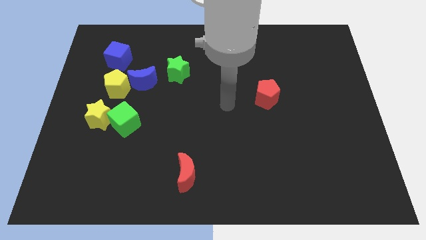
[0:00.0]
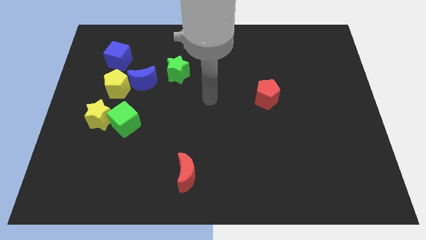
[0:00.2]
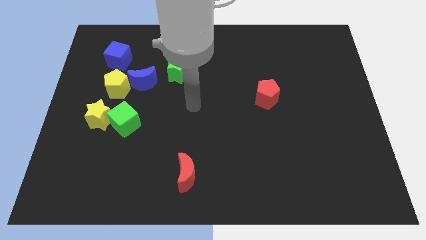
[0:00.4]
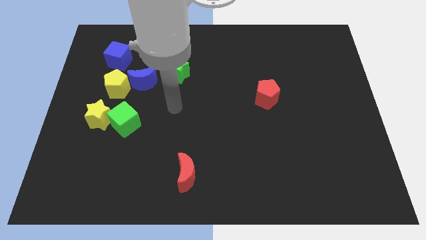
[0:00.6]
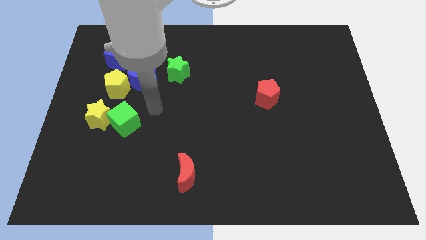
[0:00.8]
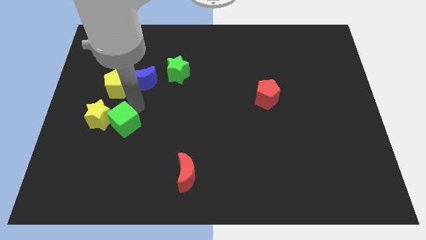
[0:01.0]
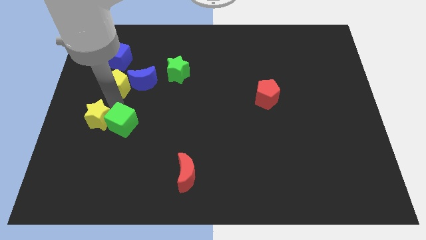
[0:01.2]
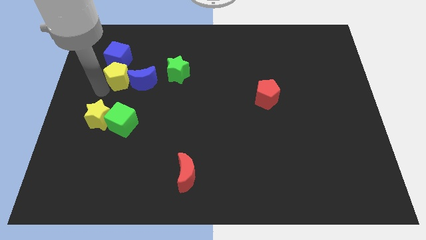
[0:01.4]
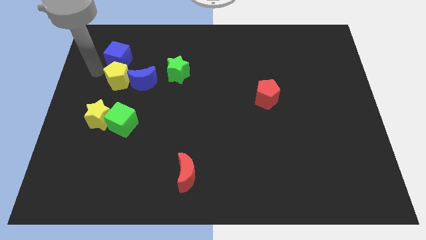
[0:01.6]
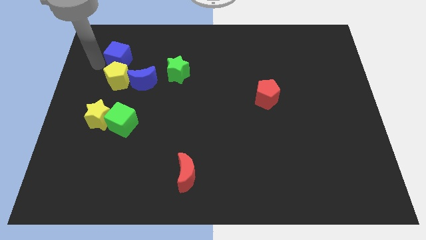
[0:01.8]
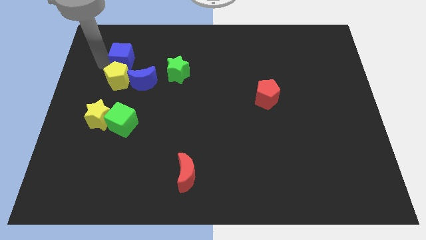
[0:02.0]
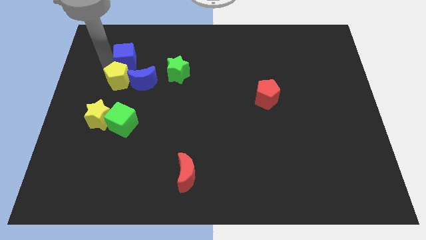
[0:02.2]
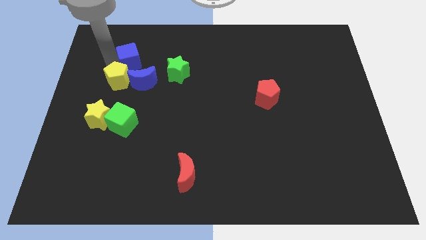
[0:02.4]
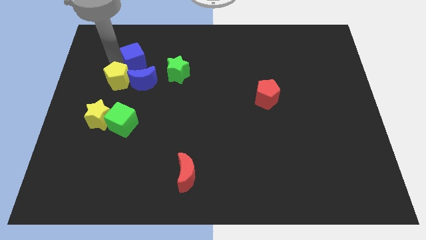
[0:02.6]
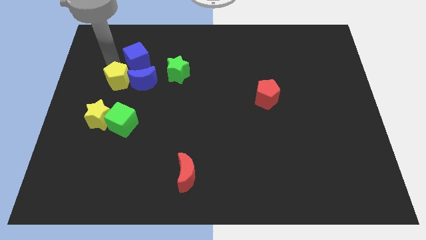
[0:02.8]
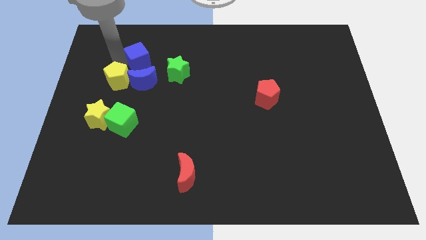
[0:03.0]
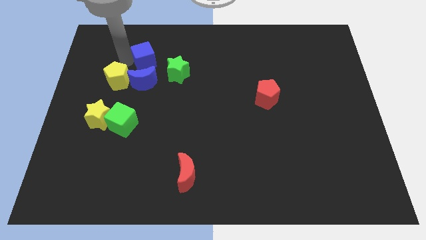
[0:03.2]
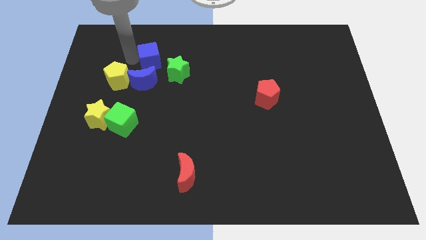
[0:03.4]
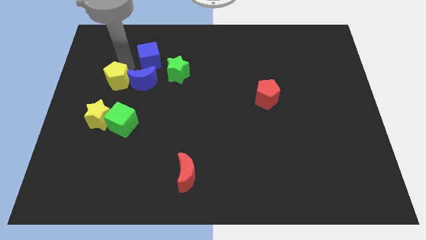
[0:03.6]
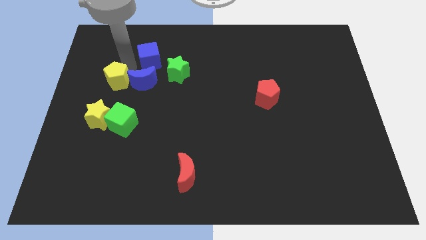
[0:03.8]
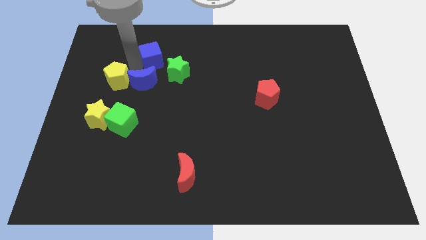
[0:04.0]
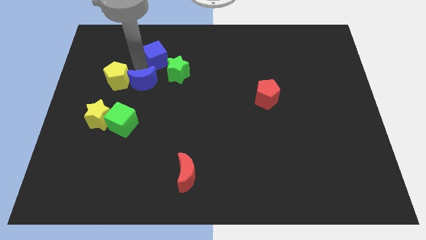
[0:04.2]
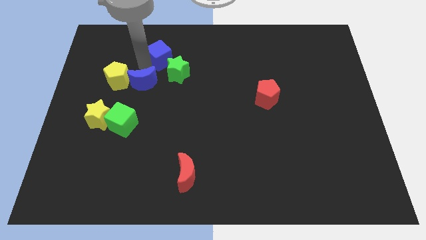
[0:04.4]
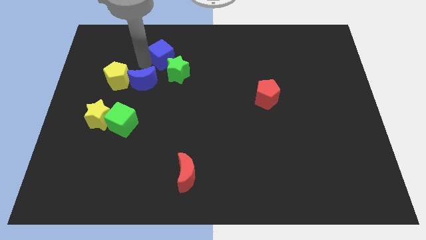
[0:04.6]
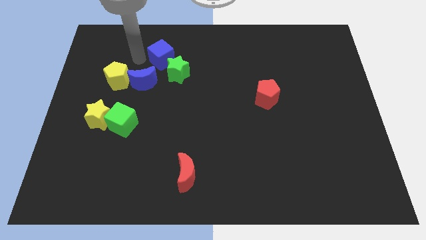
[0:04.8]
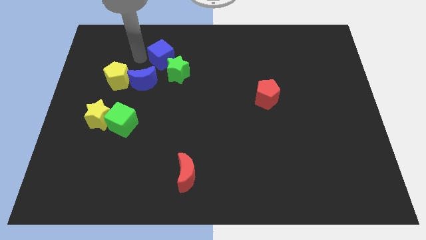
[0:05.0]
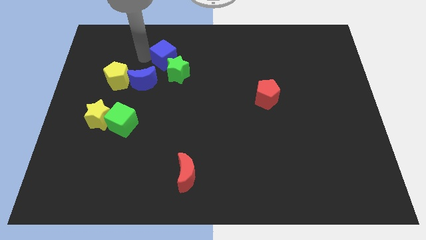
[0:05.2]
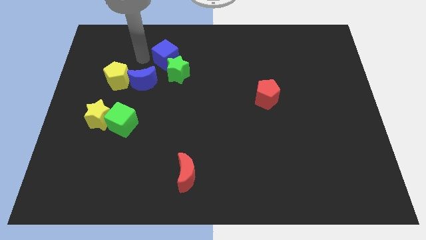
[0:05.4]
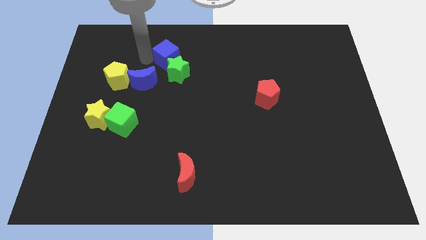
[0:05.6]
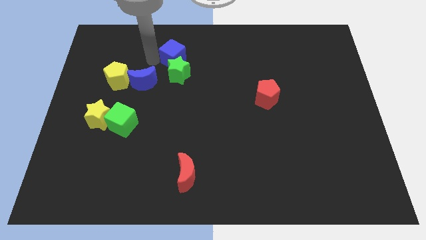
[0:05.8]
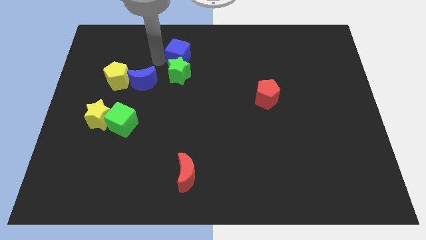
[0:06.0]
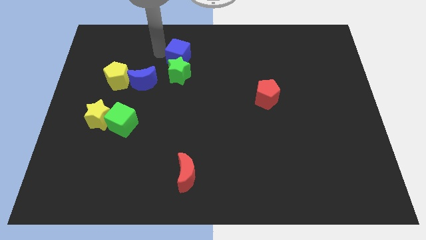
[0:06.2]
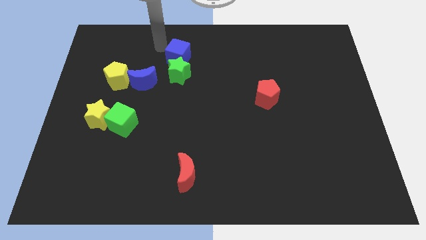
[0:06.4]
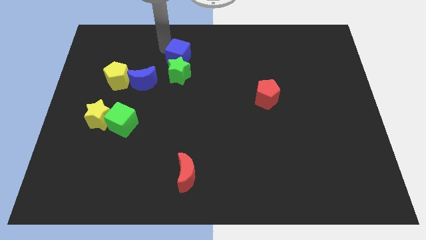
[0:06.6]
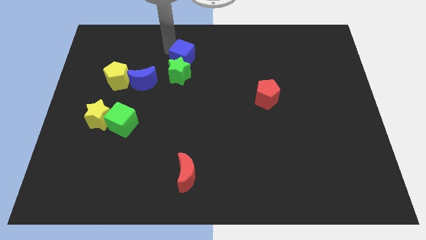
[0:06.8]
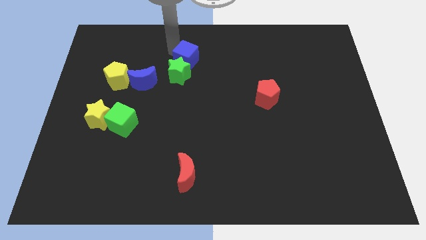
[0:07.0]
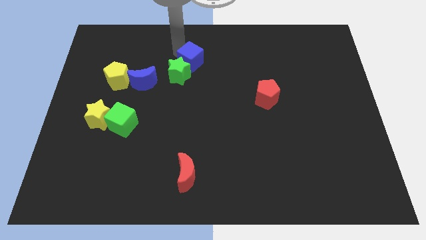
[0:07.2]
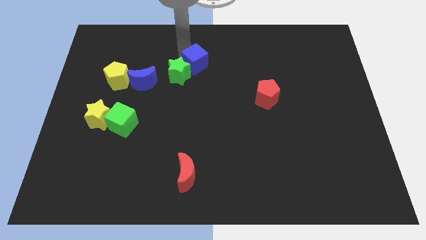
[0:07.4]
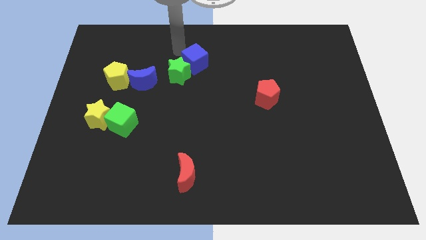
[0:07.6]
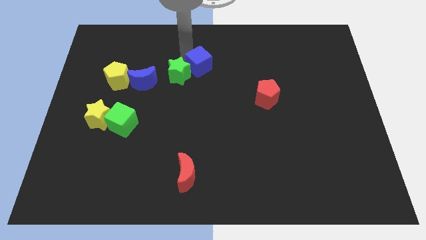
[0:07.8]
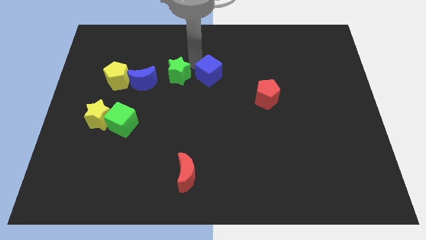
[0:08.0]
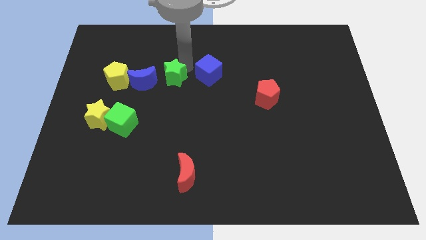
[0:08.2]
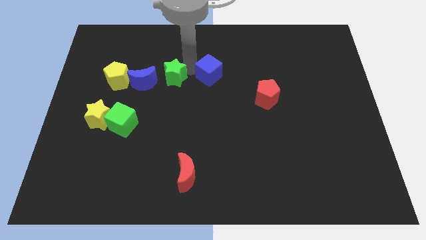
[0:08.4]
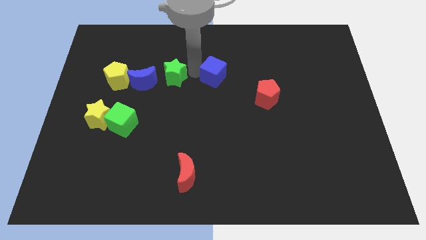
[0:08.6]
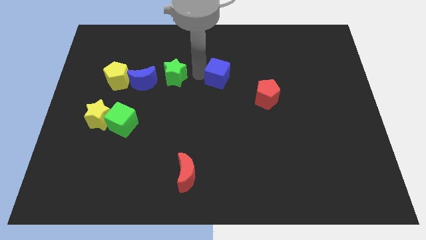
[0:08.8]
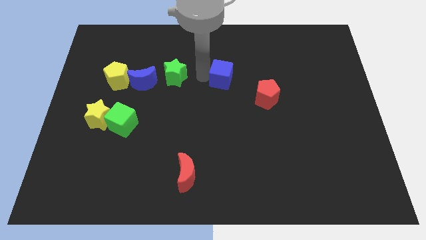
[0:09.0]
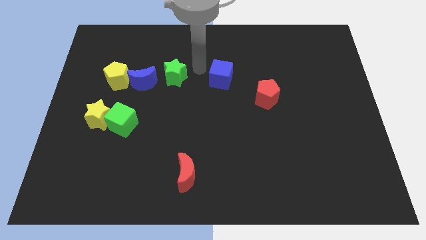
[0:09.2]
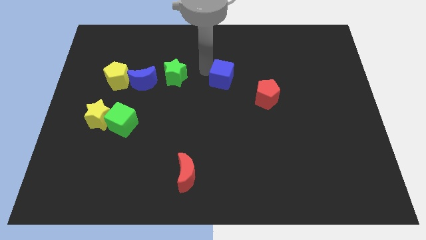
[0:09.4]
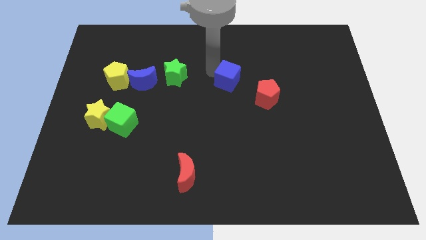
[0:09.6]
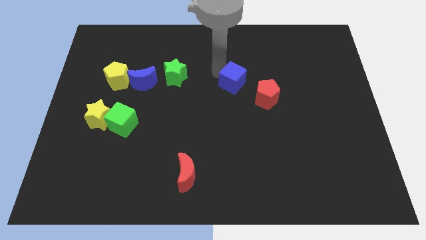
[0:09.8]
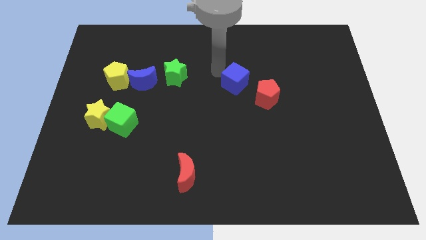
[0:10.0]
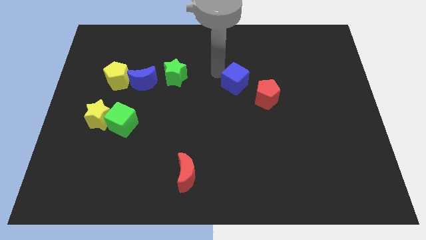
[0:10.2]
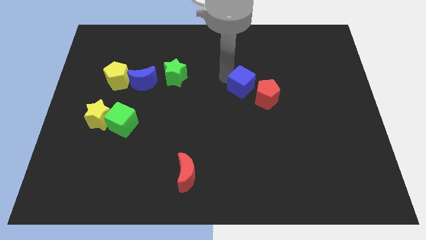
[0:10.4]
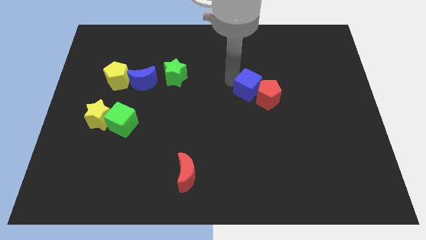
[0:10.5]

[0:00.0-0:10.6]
move the blue cube close to the red pentagon

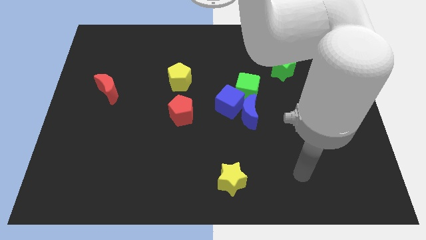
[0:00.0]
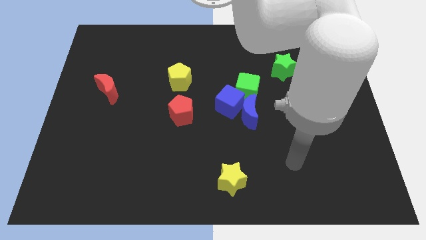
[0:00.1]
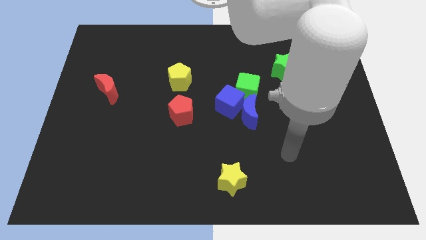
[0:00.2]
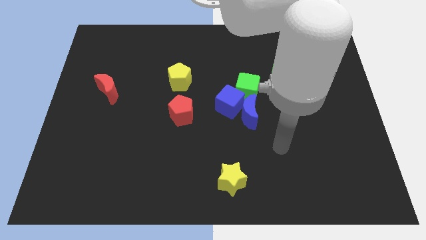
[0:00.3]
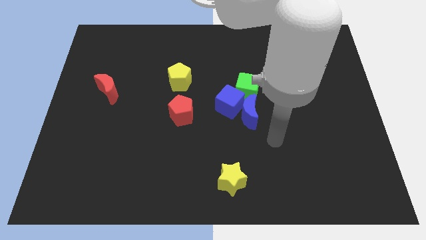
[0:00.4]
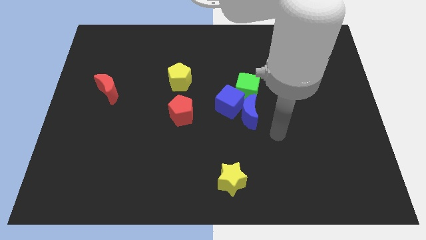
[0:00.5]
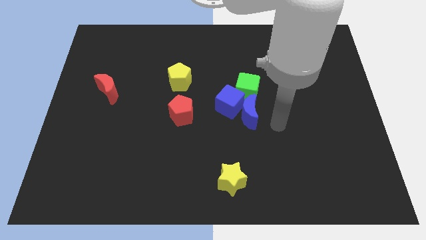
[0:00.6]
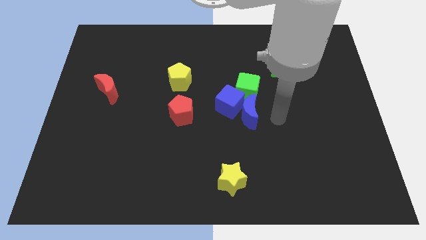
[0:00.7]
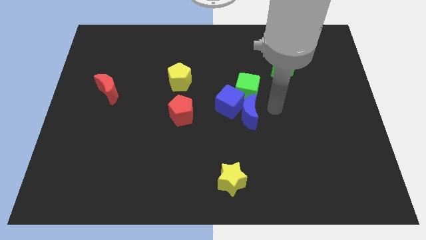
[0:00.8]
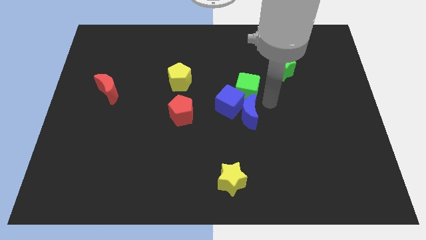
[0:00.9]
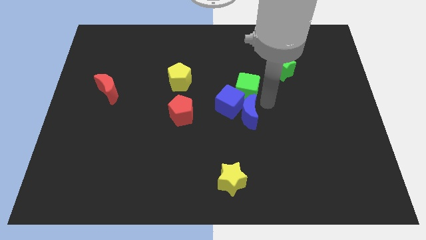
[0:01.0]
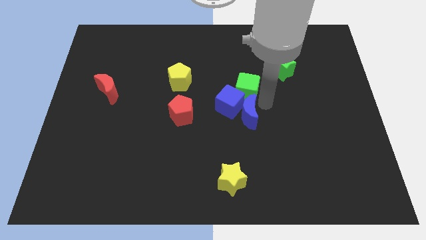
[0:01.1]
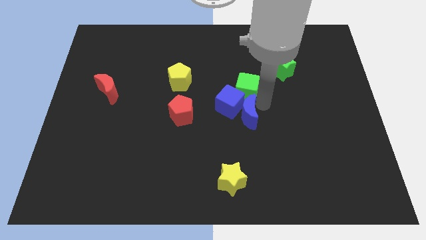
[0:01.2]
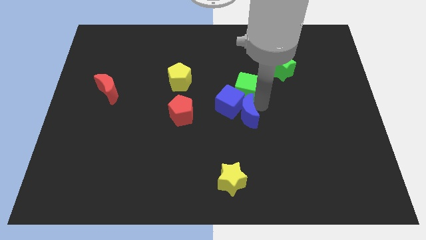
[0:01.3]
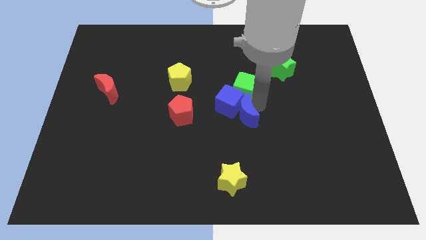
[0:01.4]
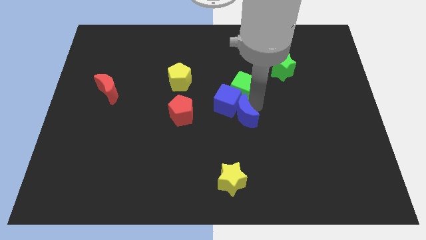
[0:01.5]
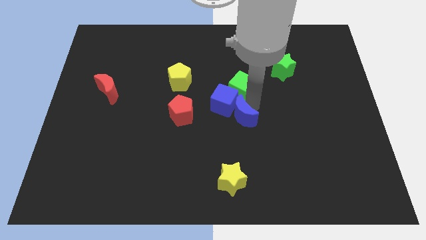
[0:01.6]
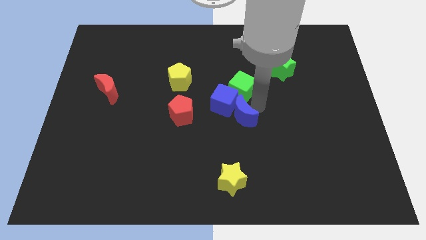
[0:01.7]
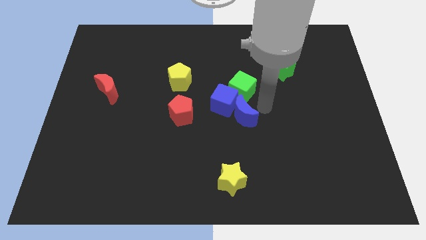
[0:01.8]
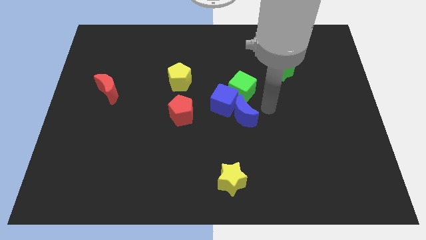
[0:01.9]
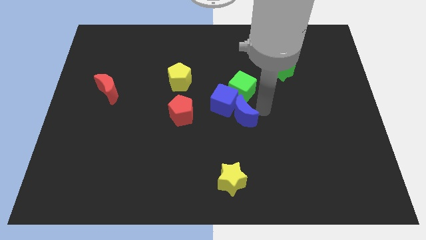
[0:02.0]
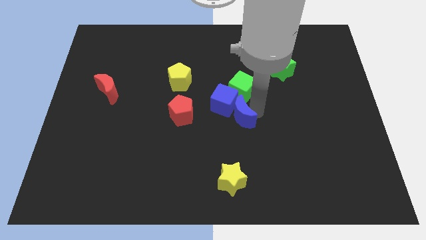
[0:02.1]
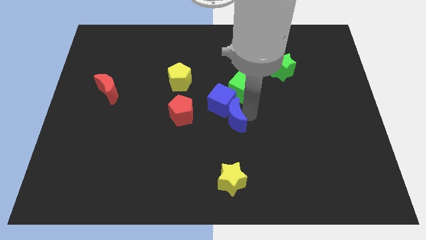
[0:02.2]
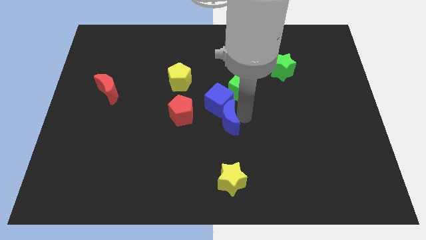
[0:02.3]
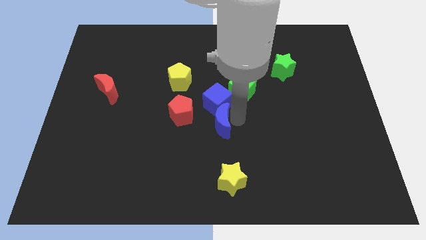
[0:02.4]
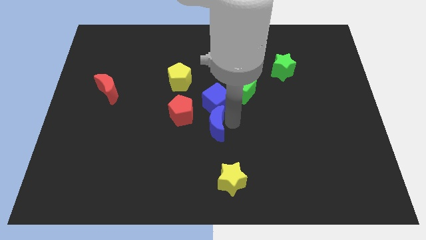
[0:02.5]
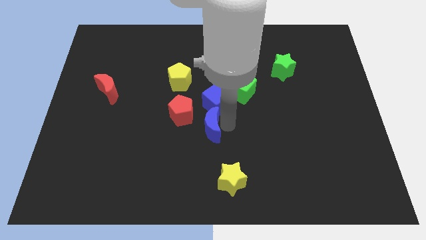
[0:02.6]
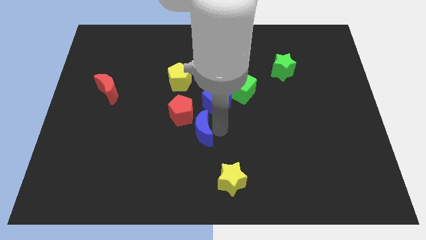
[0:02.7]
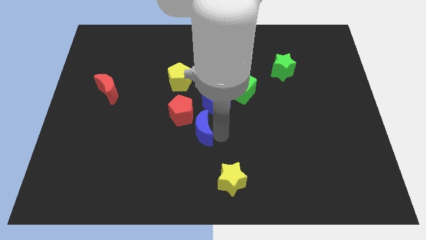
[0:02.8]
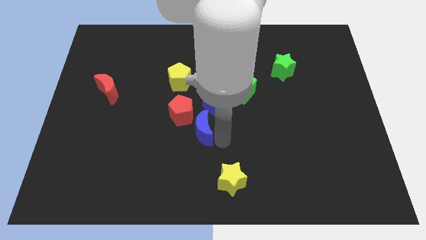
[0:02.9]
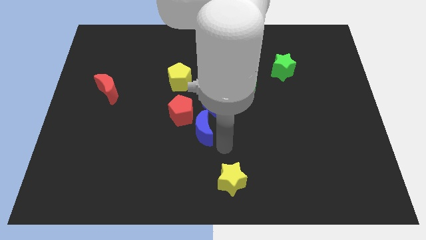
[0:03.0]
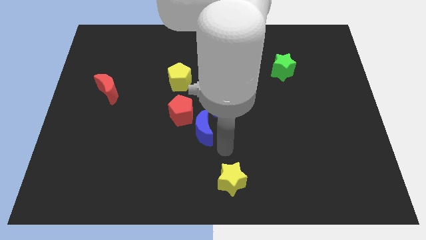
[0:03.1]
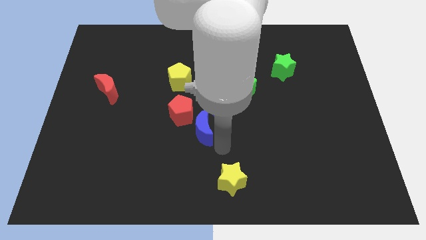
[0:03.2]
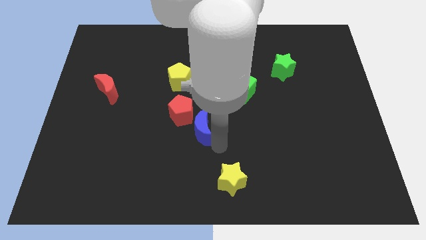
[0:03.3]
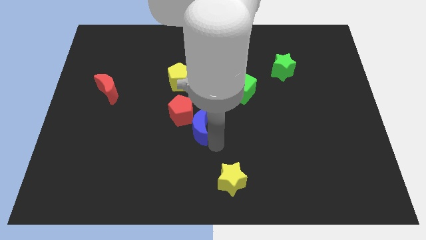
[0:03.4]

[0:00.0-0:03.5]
put the blue moon to the red pentagon
